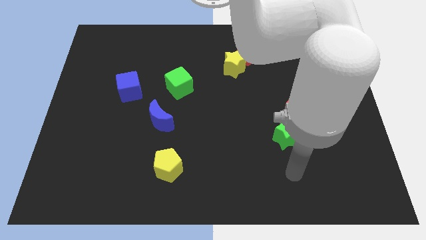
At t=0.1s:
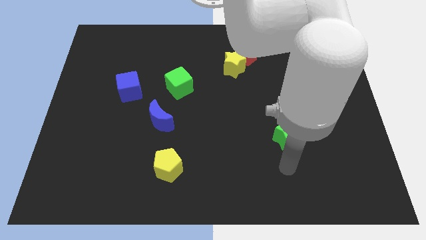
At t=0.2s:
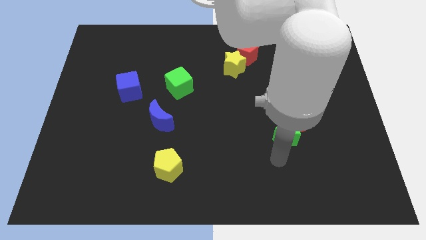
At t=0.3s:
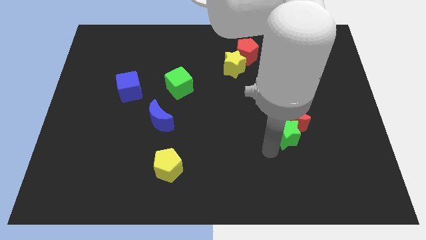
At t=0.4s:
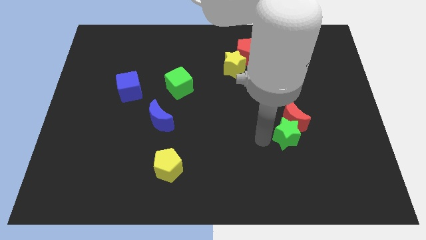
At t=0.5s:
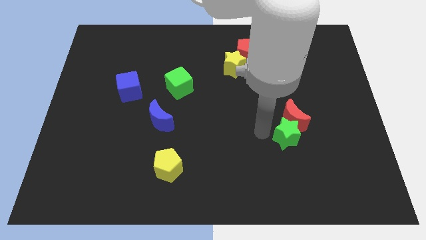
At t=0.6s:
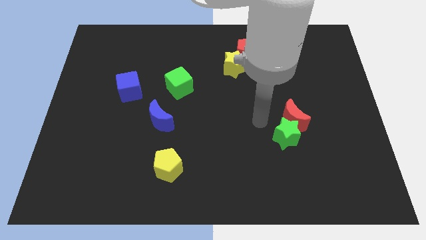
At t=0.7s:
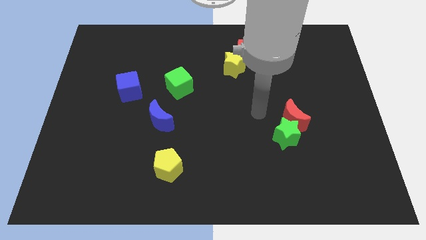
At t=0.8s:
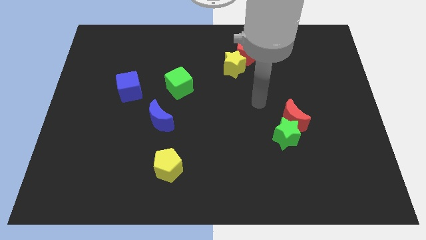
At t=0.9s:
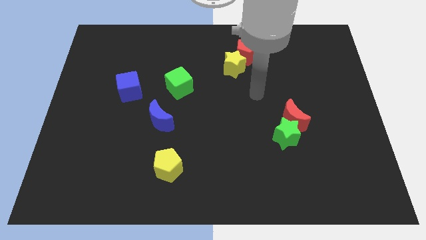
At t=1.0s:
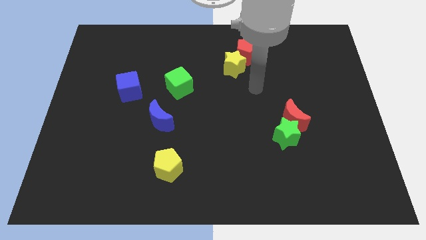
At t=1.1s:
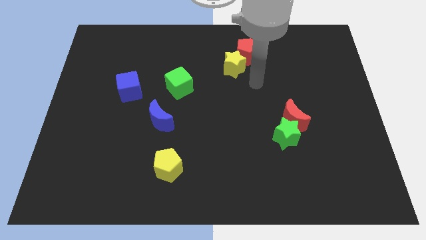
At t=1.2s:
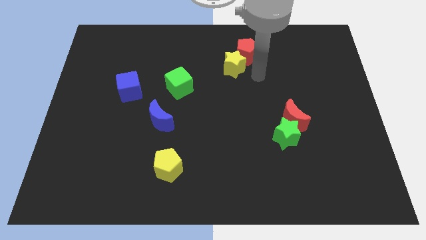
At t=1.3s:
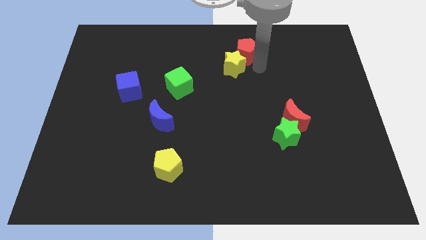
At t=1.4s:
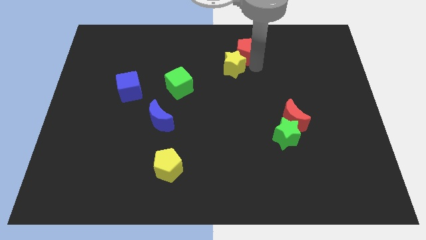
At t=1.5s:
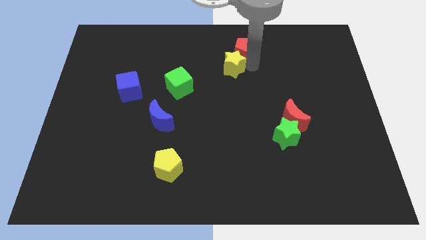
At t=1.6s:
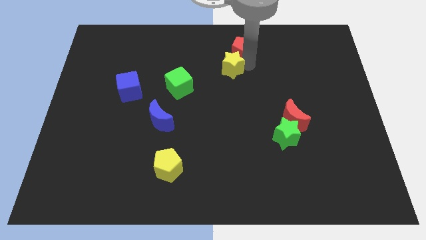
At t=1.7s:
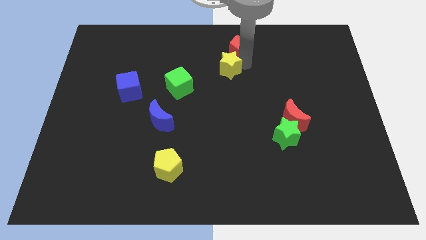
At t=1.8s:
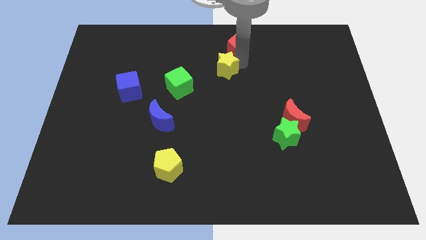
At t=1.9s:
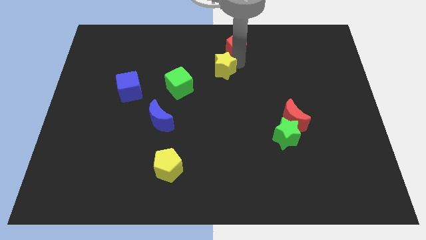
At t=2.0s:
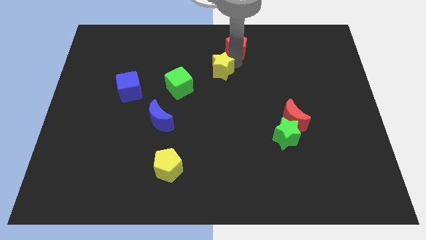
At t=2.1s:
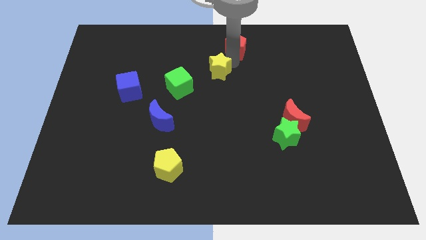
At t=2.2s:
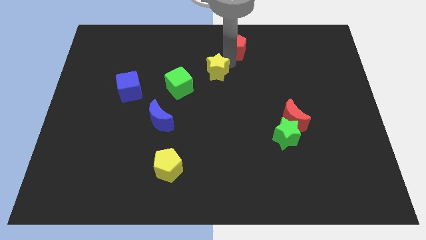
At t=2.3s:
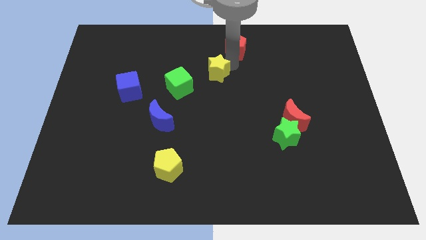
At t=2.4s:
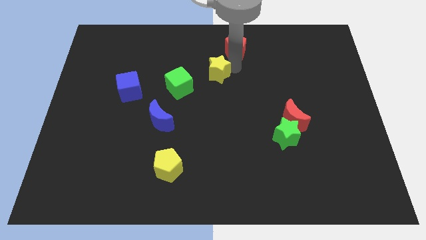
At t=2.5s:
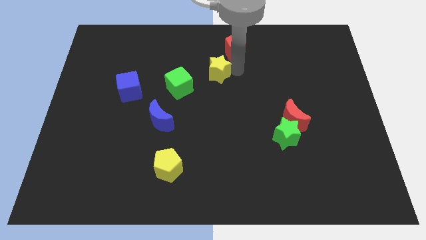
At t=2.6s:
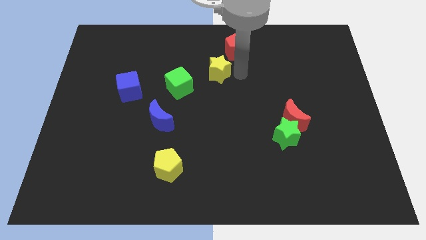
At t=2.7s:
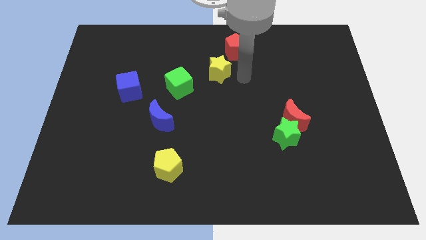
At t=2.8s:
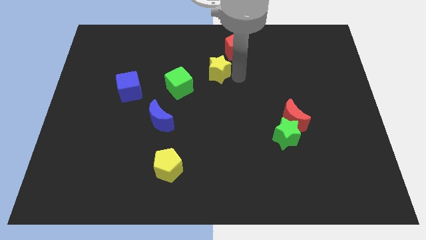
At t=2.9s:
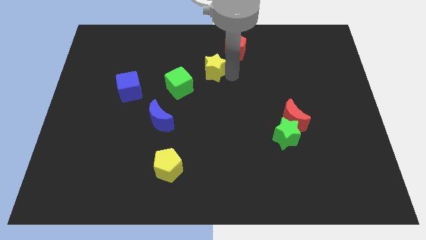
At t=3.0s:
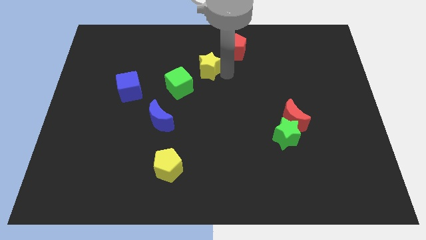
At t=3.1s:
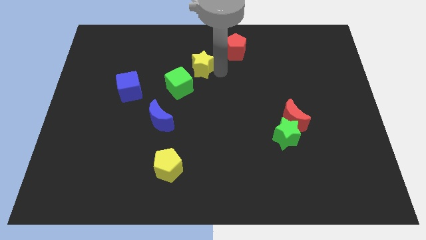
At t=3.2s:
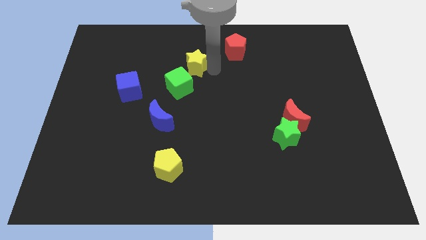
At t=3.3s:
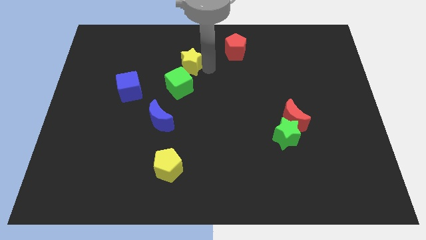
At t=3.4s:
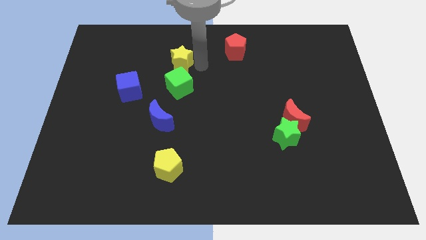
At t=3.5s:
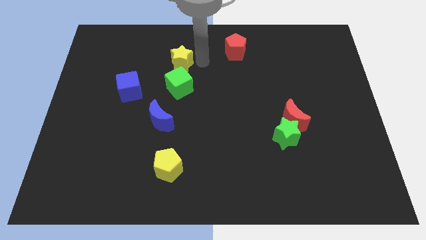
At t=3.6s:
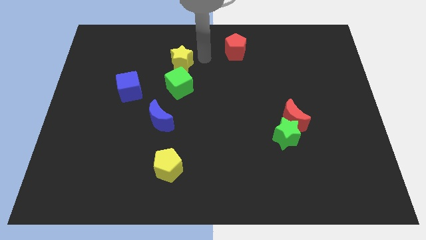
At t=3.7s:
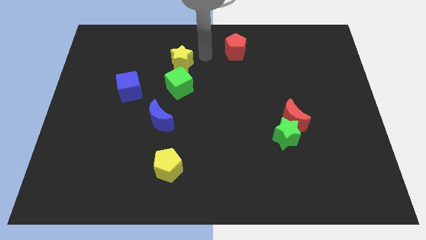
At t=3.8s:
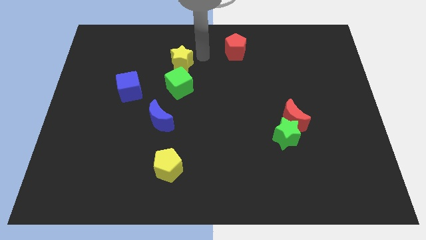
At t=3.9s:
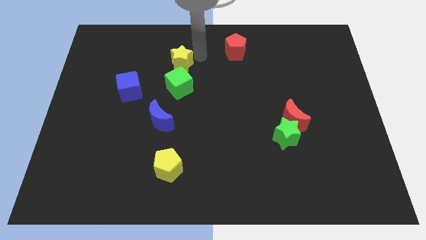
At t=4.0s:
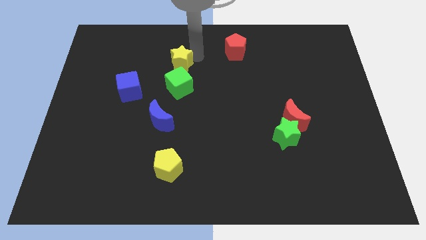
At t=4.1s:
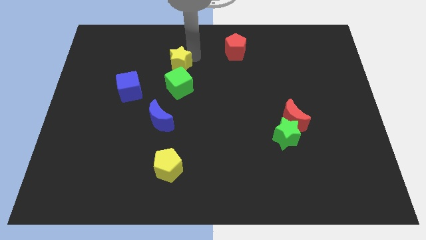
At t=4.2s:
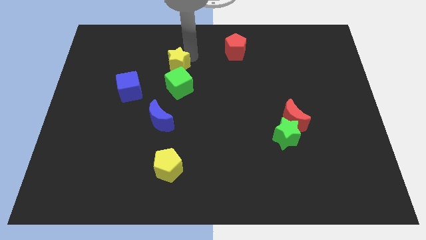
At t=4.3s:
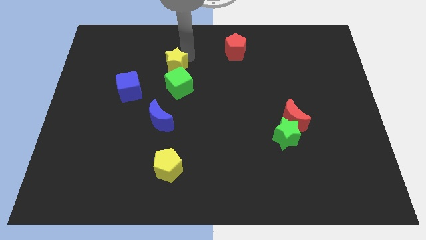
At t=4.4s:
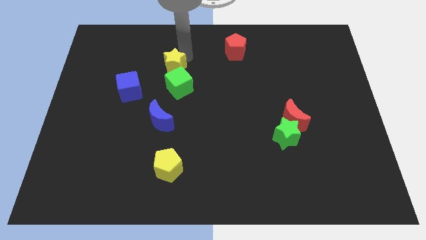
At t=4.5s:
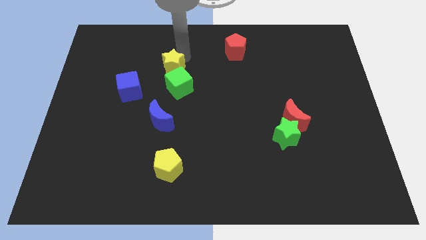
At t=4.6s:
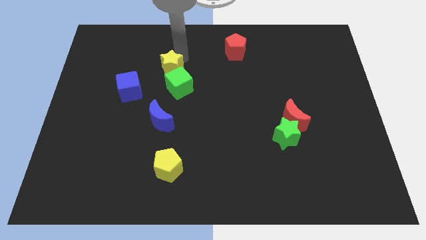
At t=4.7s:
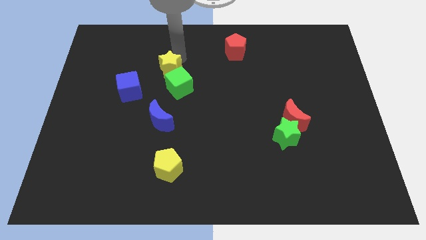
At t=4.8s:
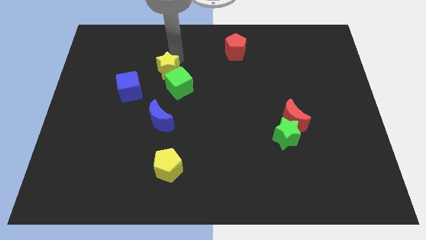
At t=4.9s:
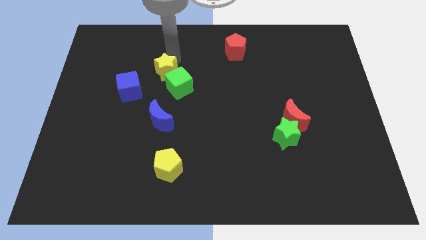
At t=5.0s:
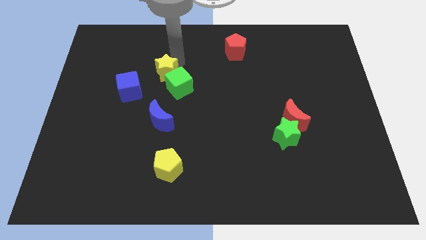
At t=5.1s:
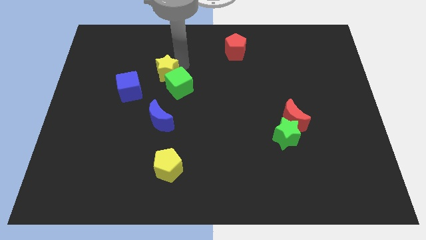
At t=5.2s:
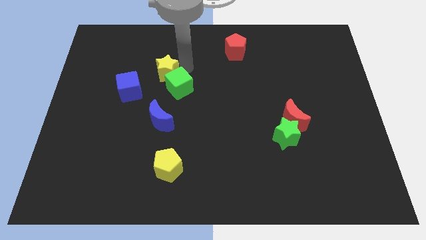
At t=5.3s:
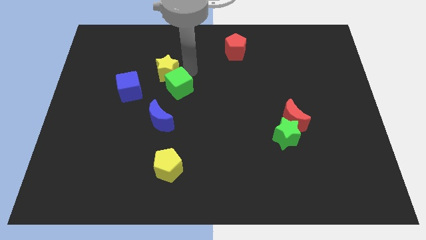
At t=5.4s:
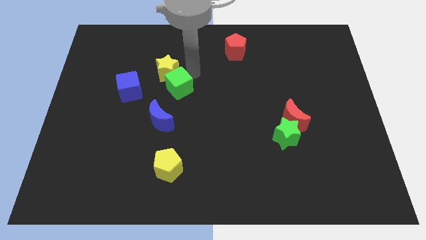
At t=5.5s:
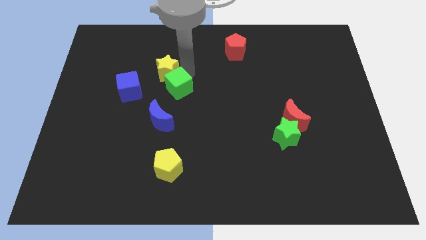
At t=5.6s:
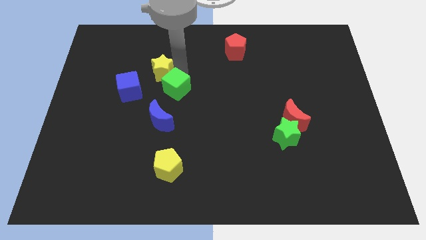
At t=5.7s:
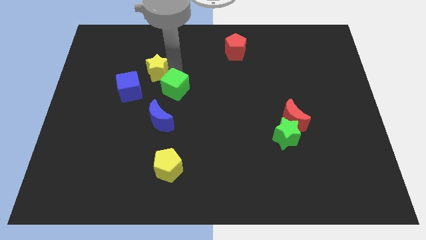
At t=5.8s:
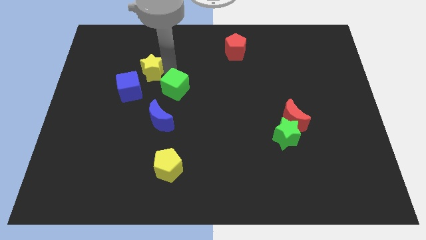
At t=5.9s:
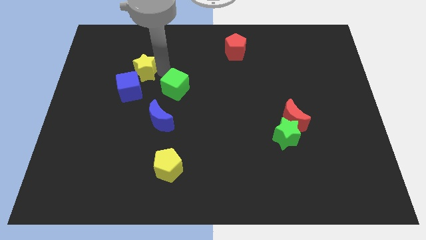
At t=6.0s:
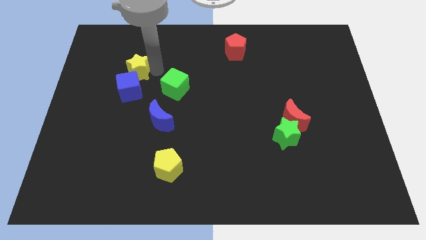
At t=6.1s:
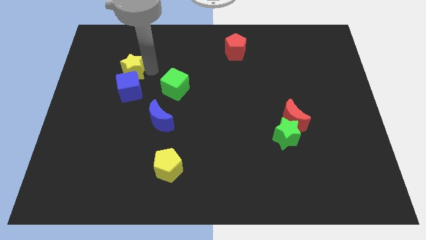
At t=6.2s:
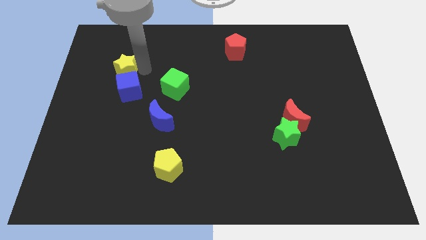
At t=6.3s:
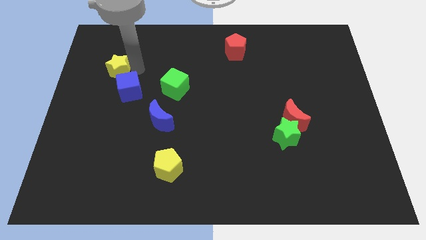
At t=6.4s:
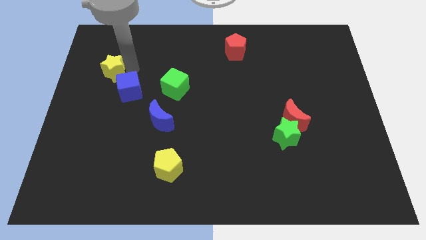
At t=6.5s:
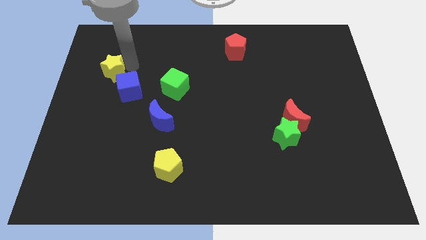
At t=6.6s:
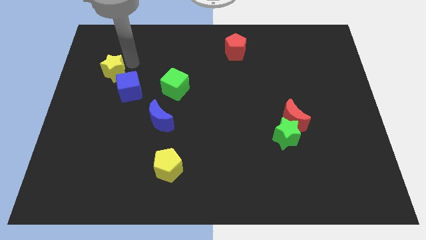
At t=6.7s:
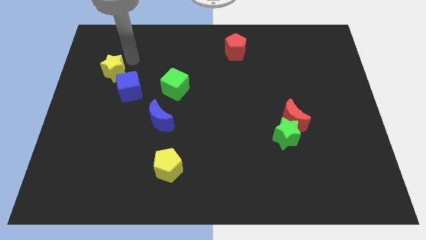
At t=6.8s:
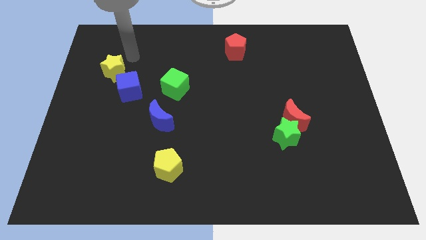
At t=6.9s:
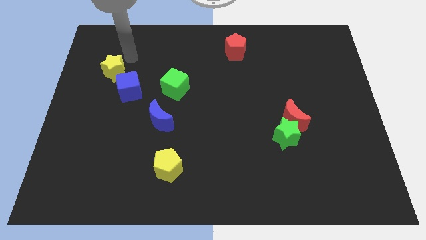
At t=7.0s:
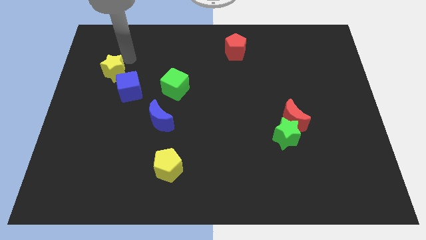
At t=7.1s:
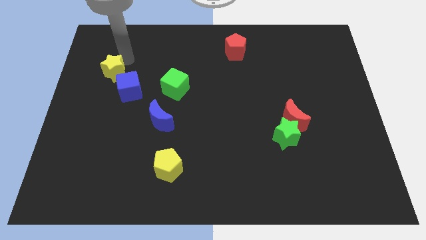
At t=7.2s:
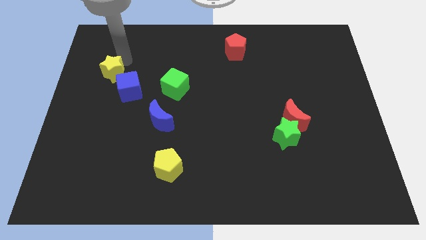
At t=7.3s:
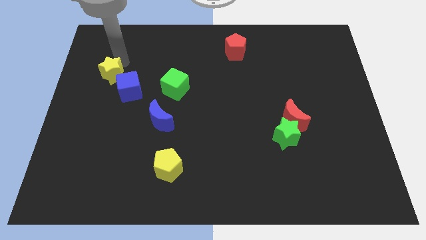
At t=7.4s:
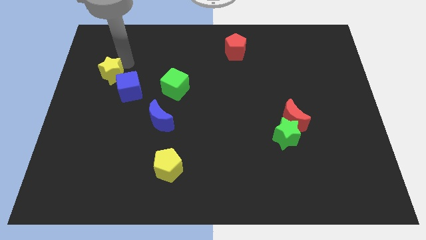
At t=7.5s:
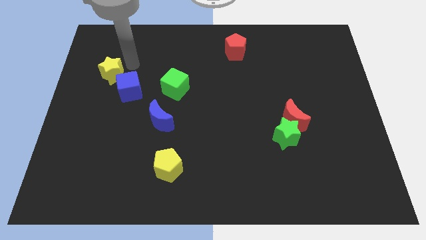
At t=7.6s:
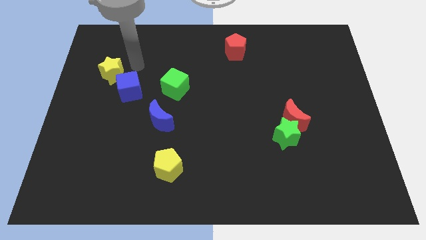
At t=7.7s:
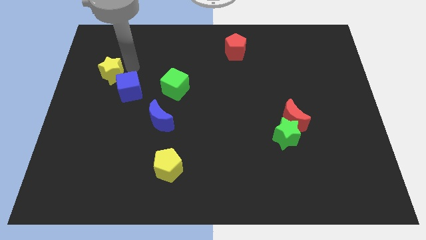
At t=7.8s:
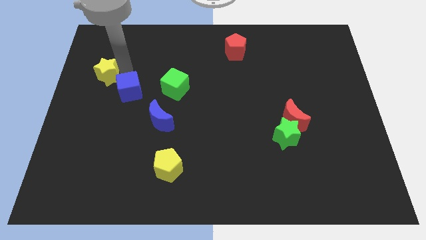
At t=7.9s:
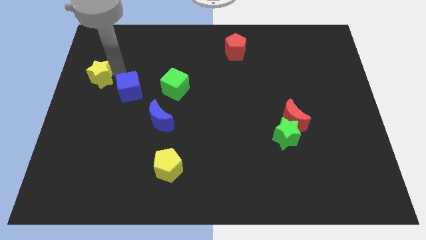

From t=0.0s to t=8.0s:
push the yellow star to the center left
